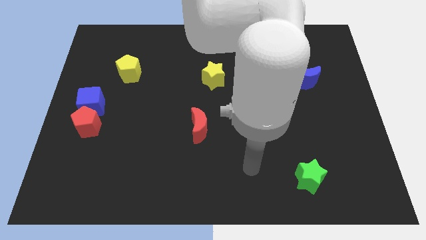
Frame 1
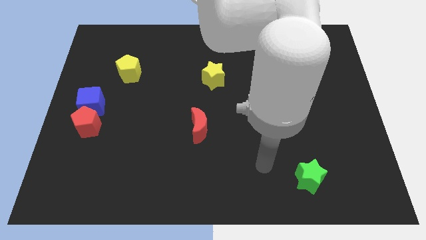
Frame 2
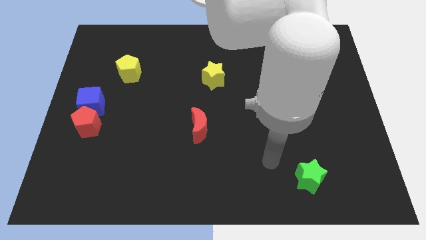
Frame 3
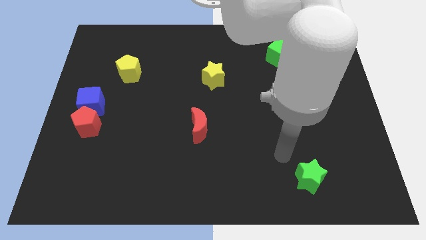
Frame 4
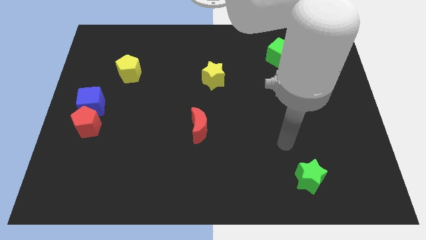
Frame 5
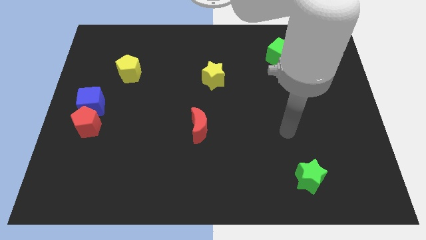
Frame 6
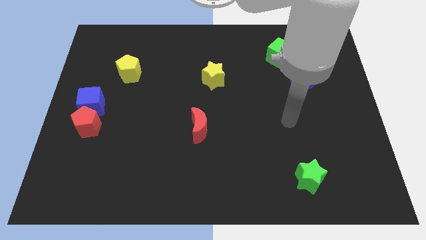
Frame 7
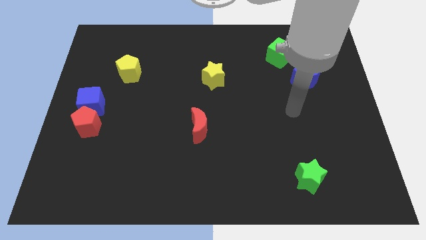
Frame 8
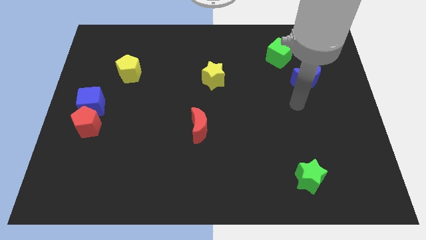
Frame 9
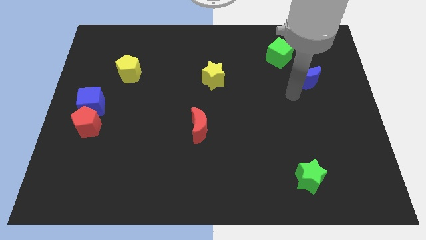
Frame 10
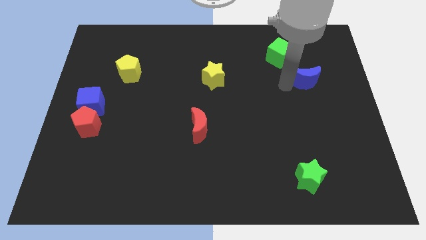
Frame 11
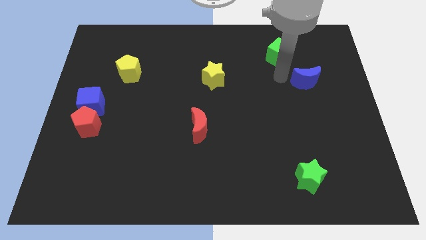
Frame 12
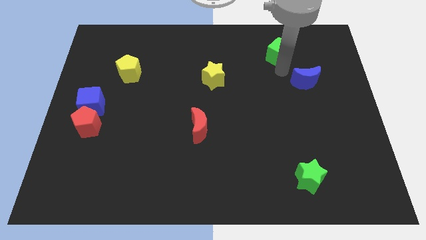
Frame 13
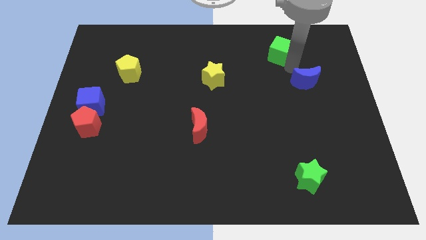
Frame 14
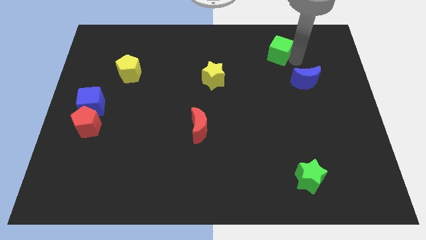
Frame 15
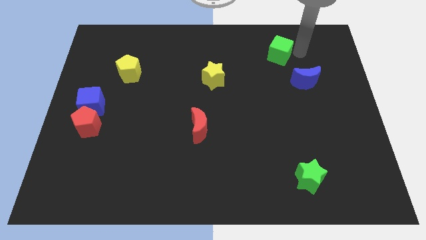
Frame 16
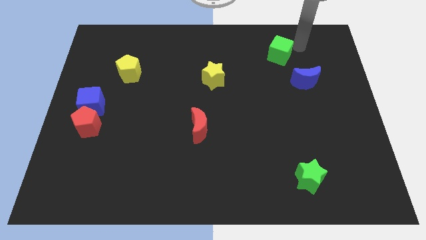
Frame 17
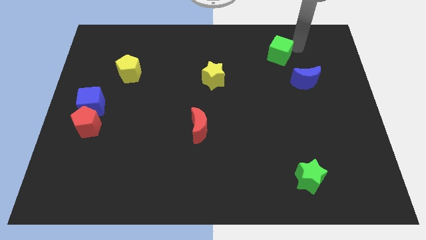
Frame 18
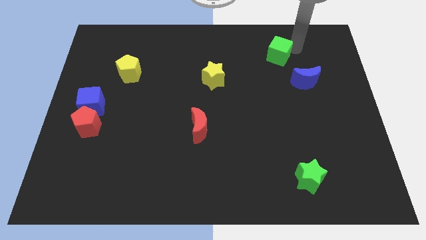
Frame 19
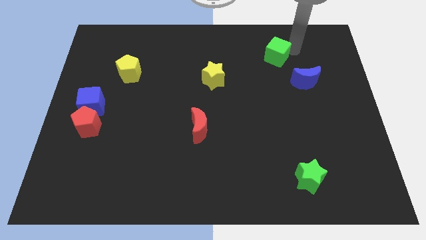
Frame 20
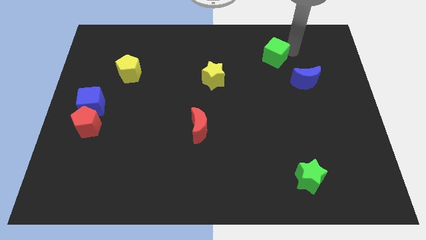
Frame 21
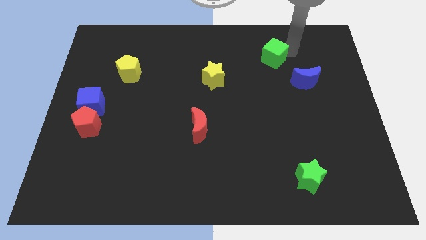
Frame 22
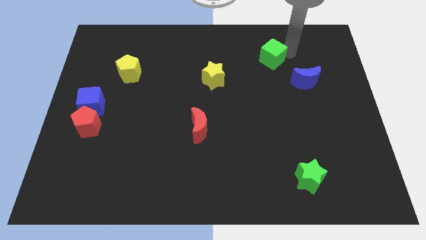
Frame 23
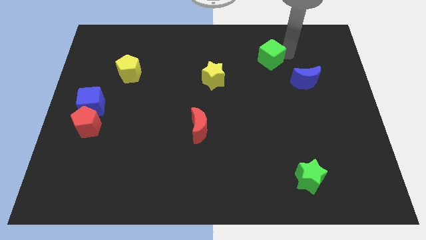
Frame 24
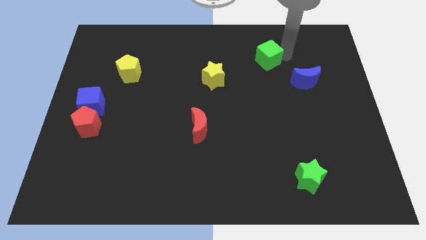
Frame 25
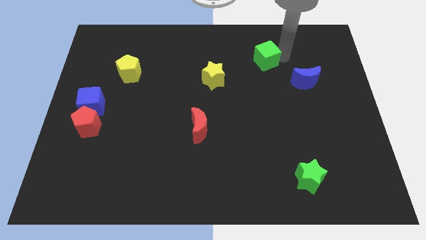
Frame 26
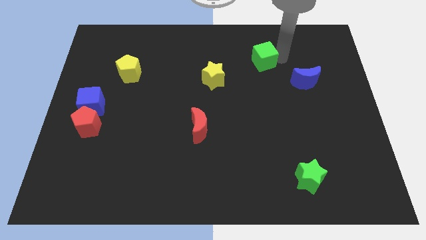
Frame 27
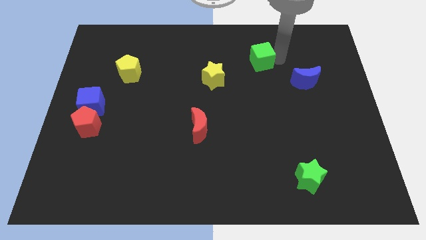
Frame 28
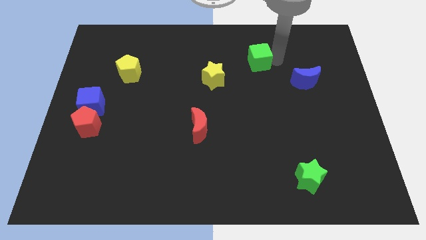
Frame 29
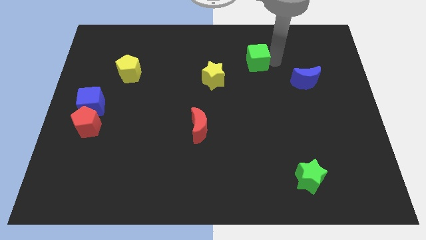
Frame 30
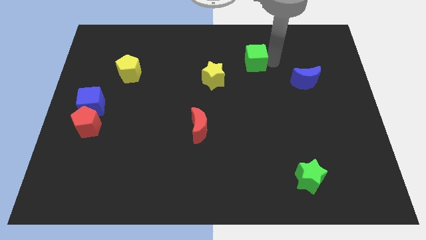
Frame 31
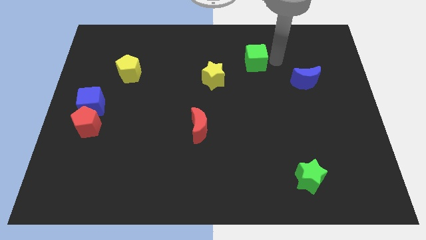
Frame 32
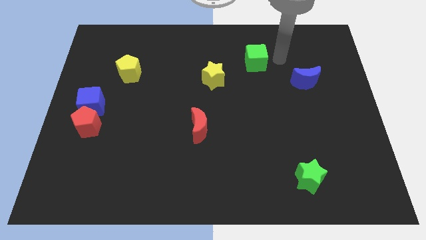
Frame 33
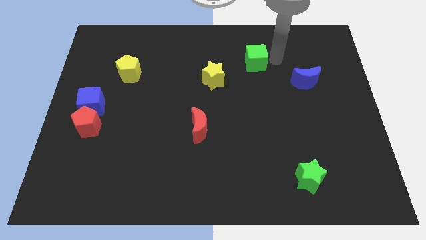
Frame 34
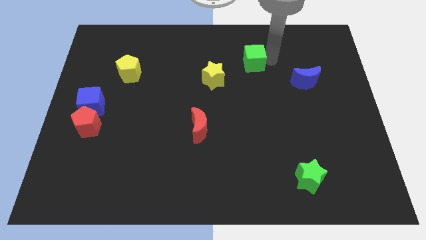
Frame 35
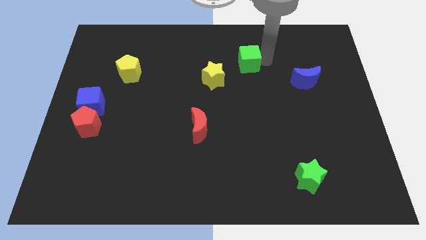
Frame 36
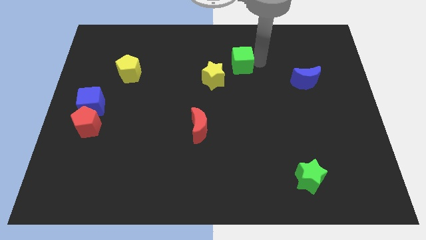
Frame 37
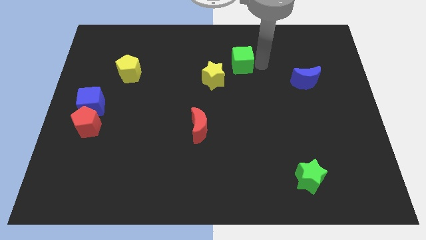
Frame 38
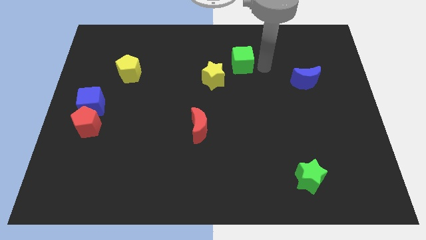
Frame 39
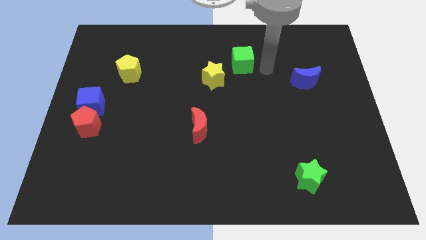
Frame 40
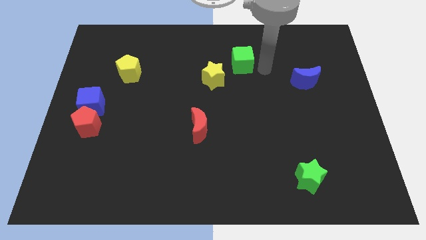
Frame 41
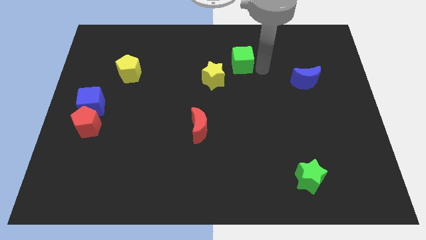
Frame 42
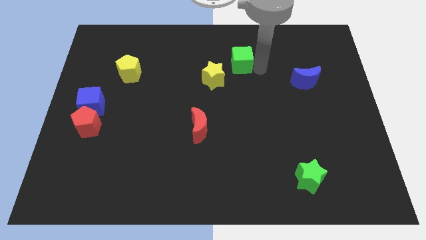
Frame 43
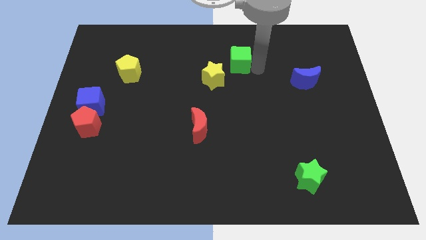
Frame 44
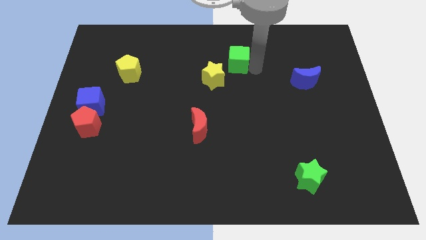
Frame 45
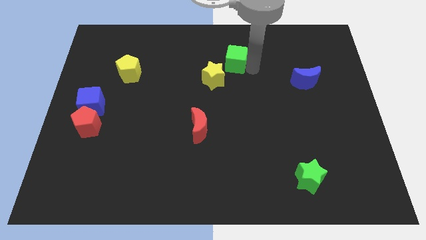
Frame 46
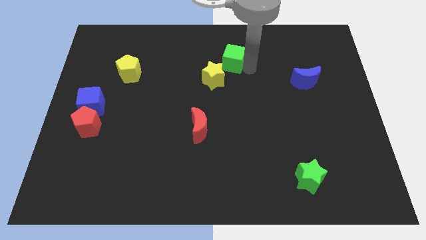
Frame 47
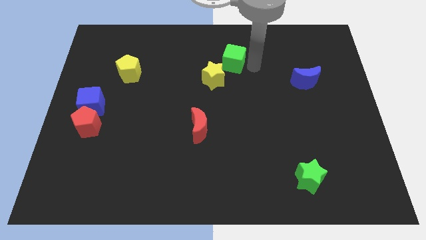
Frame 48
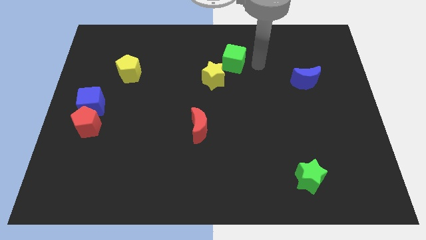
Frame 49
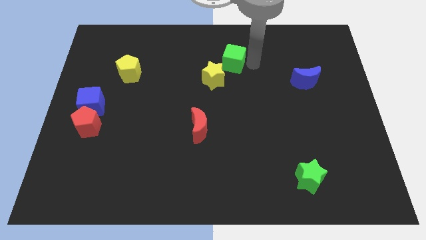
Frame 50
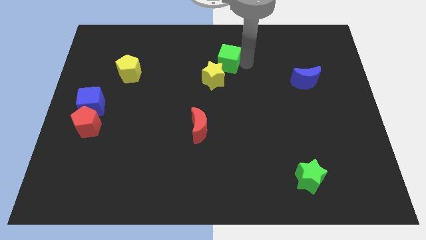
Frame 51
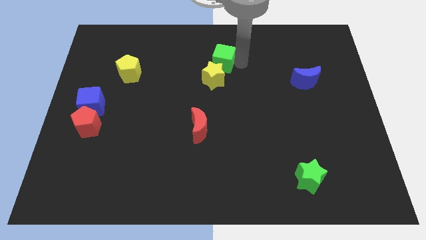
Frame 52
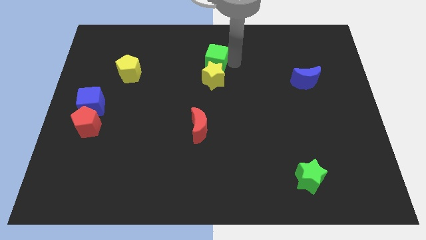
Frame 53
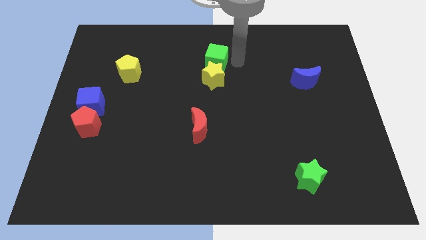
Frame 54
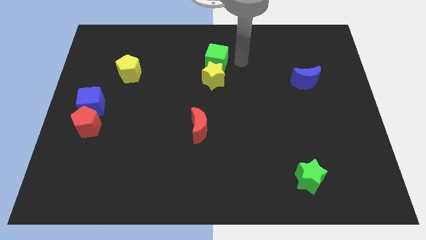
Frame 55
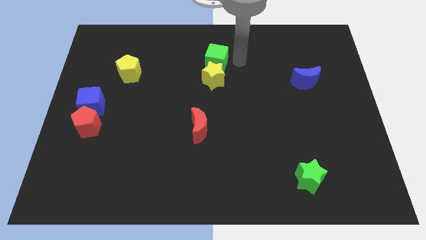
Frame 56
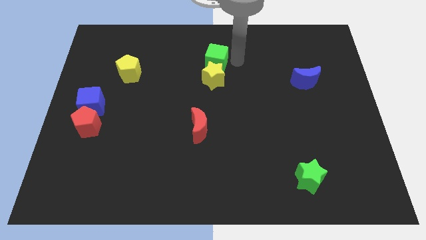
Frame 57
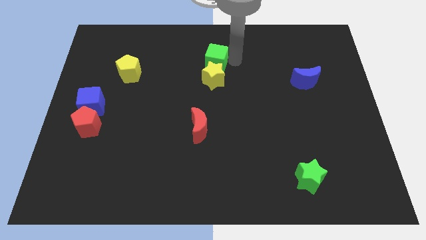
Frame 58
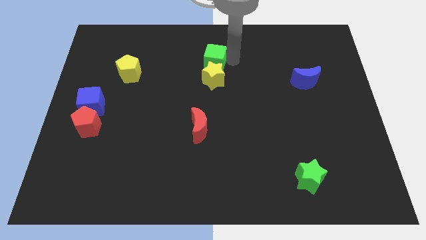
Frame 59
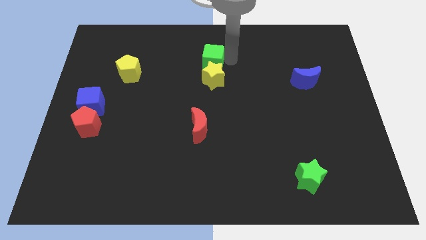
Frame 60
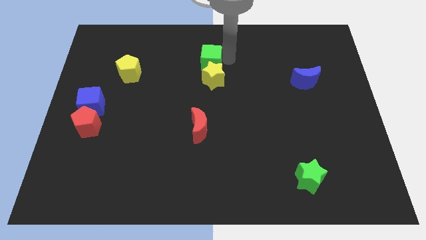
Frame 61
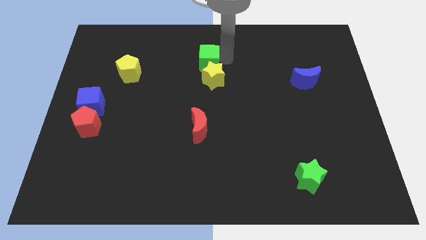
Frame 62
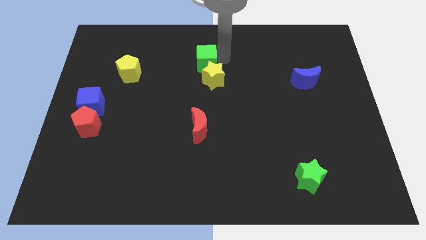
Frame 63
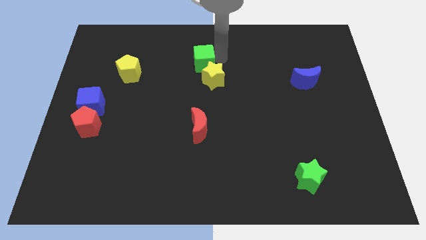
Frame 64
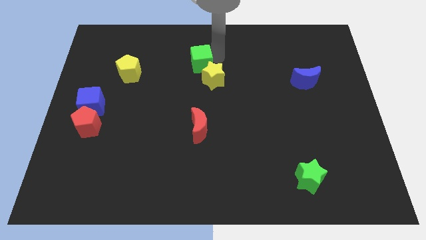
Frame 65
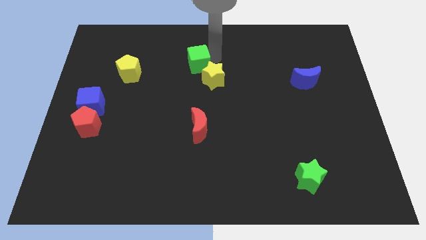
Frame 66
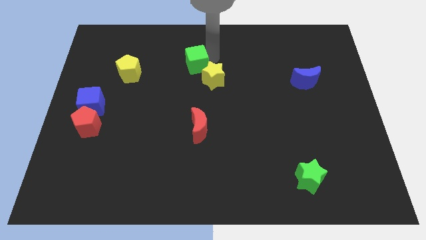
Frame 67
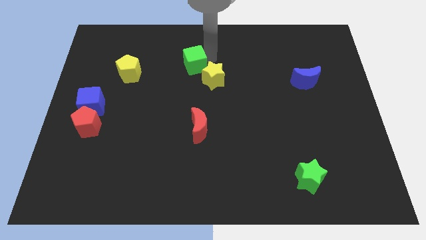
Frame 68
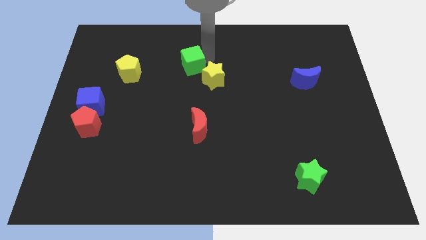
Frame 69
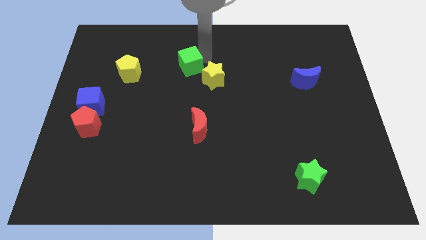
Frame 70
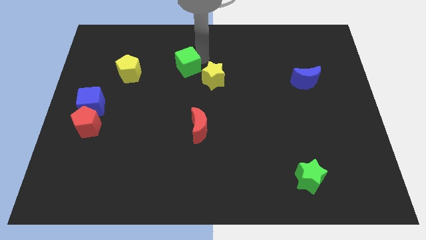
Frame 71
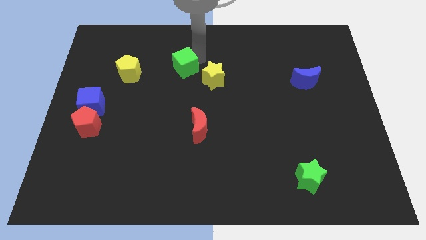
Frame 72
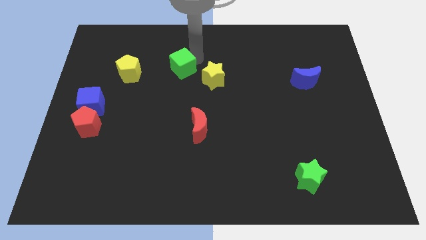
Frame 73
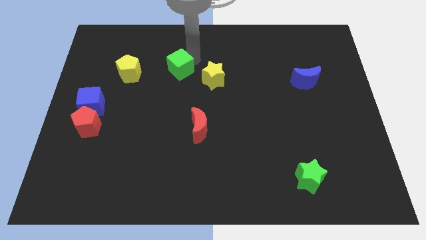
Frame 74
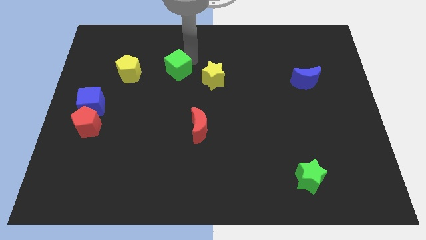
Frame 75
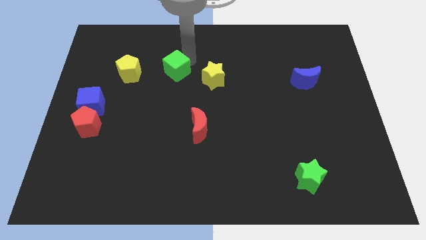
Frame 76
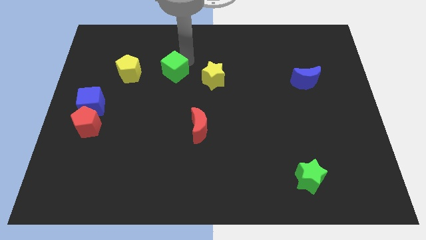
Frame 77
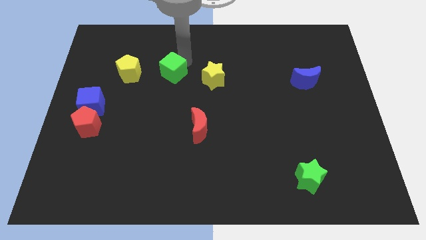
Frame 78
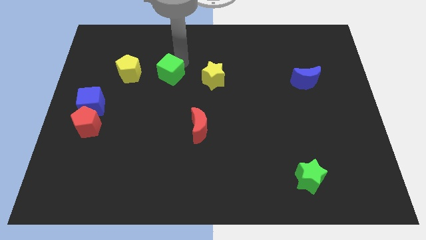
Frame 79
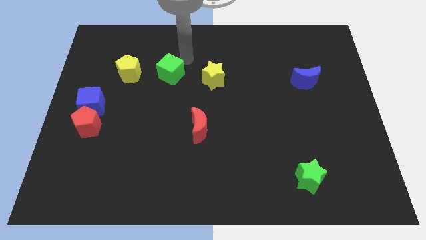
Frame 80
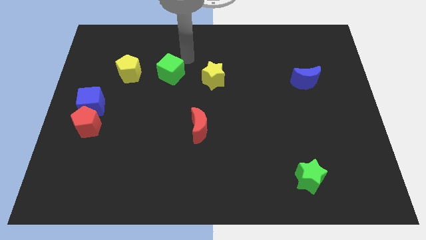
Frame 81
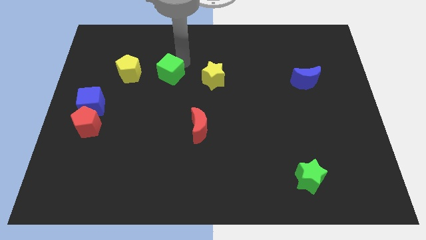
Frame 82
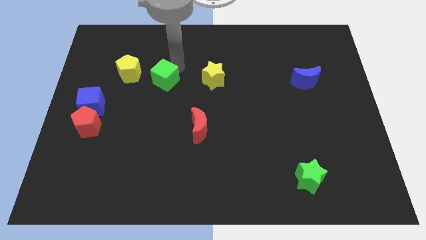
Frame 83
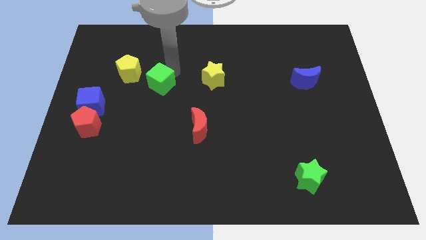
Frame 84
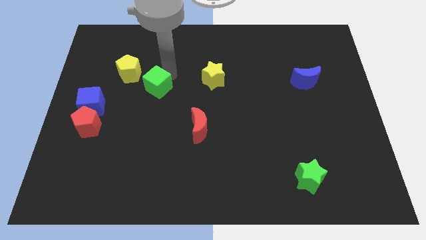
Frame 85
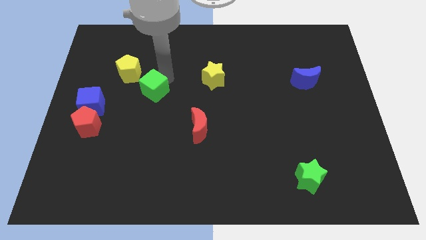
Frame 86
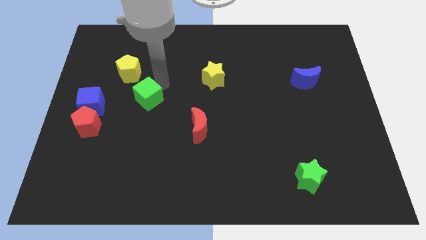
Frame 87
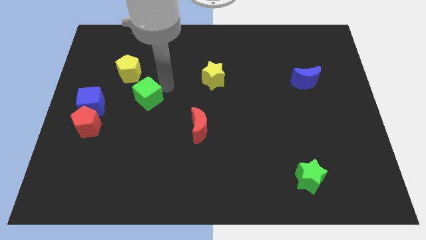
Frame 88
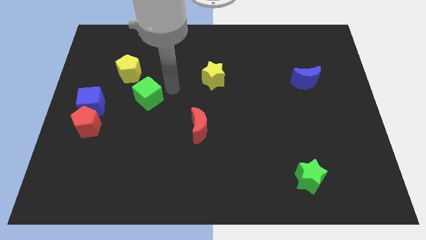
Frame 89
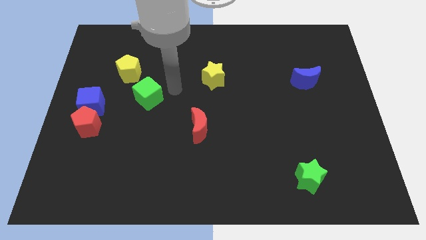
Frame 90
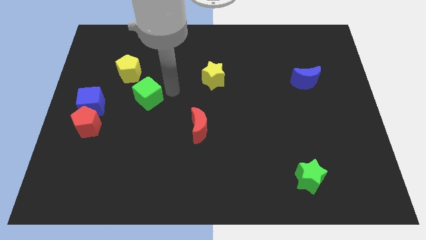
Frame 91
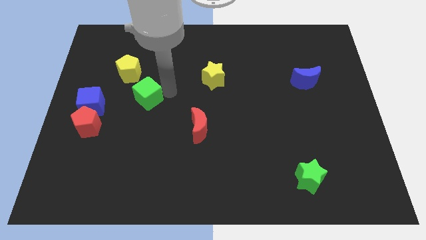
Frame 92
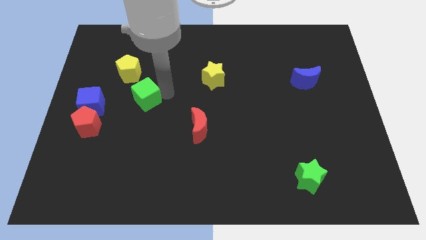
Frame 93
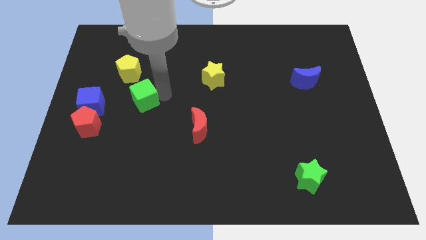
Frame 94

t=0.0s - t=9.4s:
put the green cube to the bottom side of the yellow pentagon
